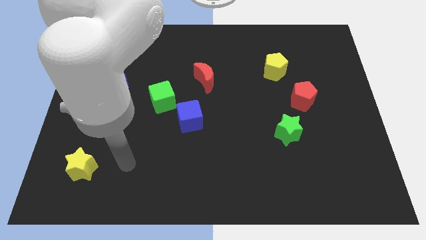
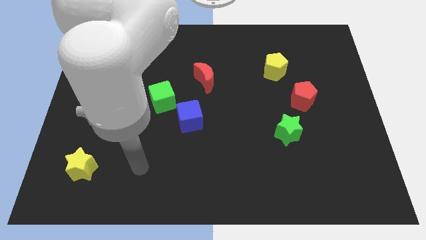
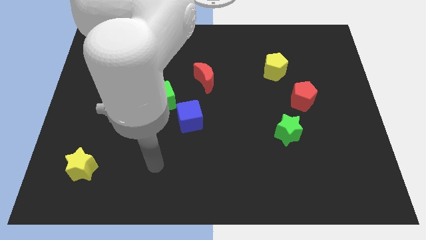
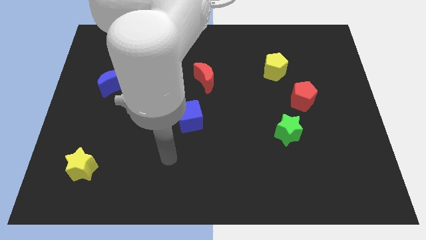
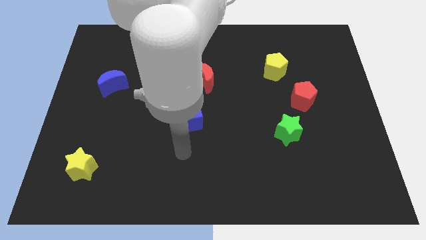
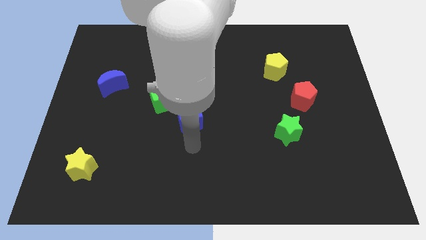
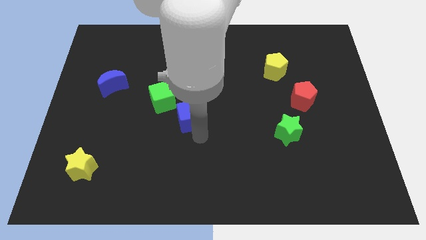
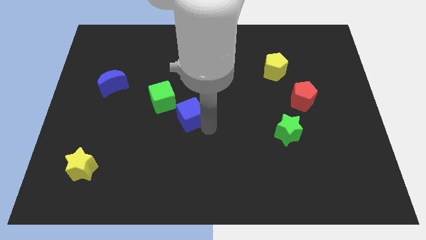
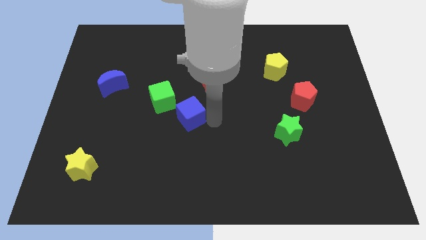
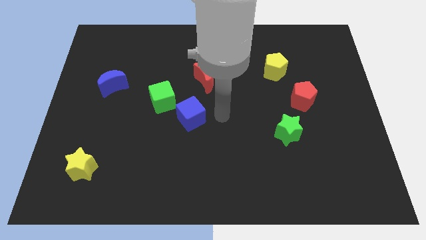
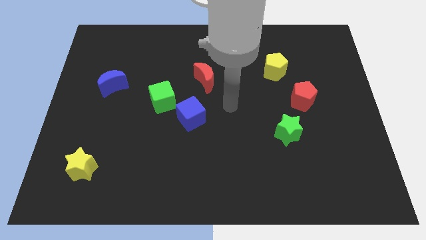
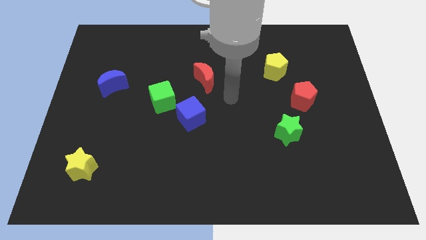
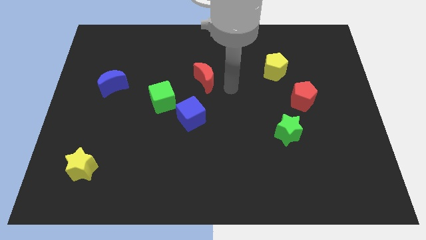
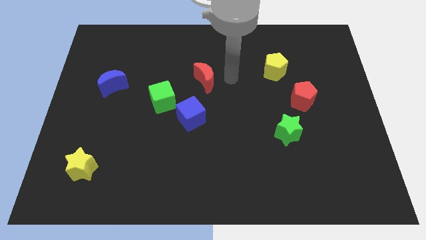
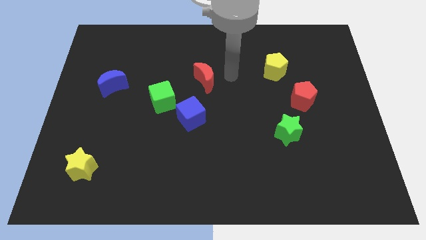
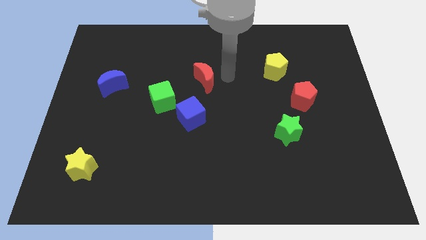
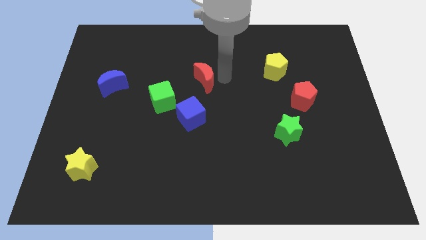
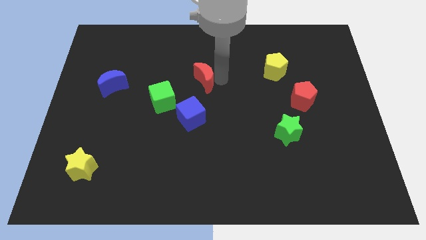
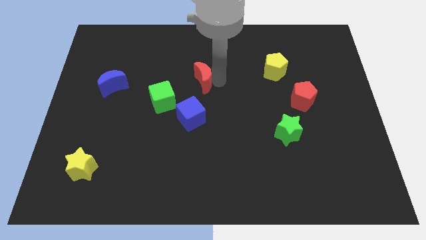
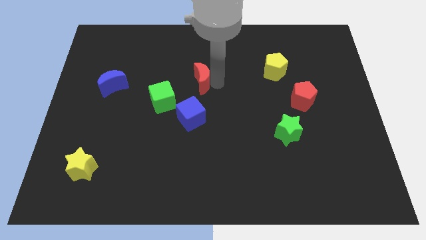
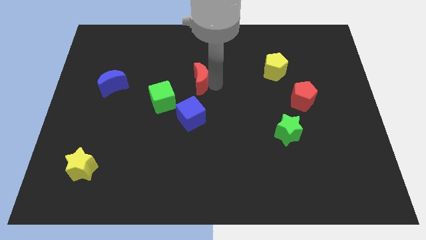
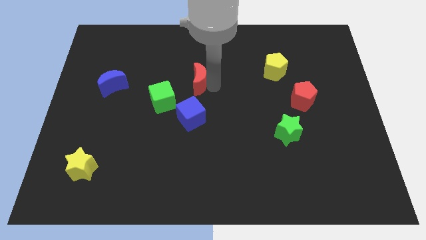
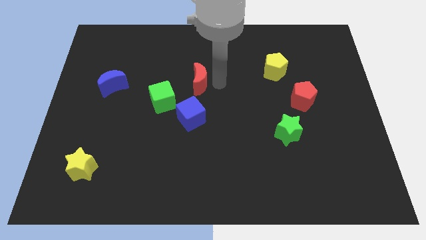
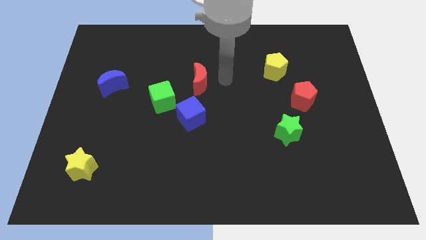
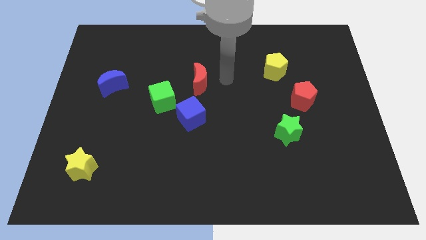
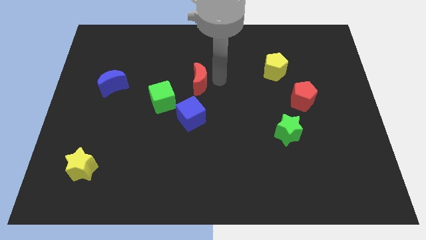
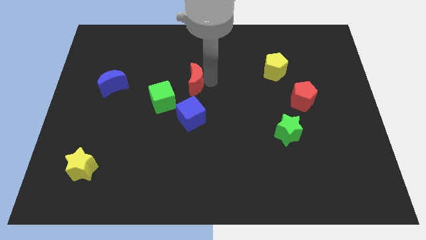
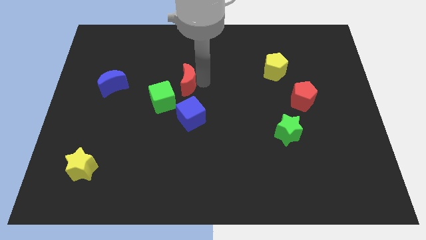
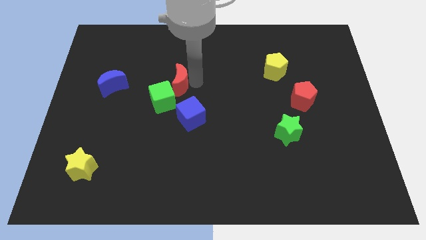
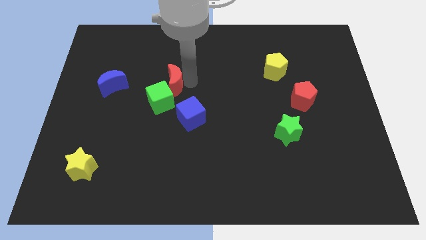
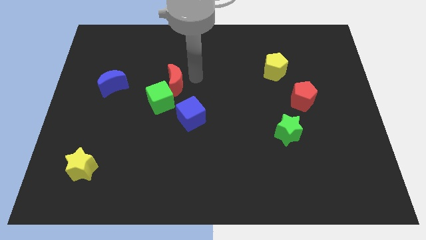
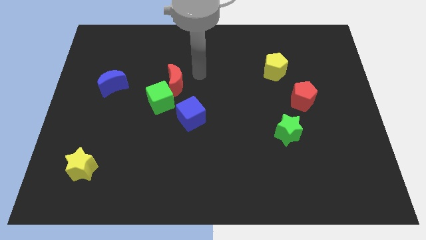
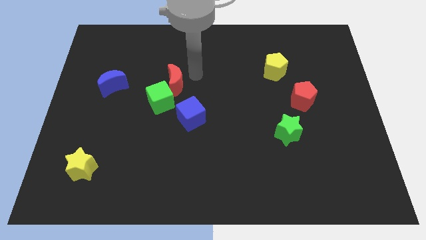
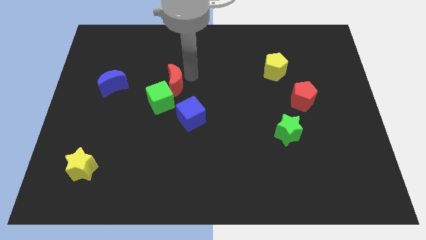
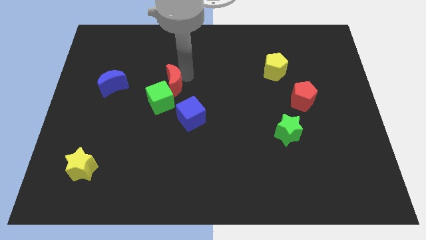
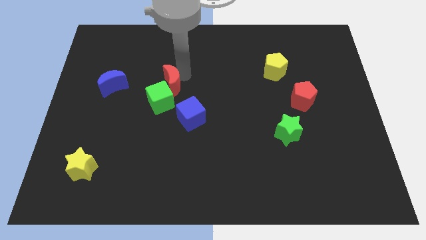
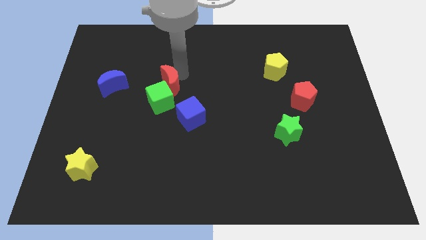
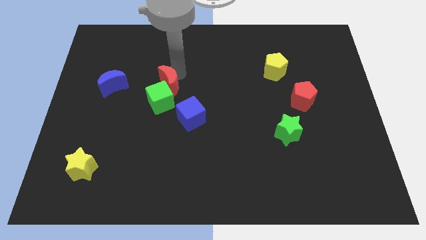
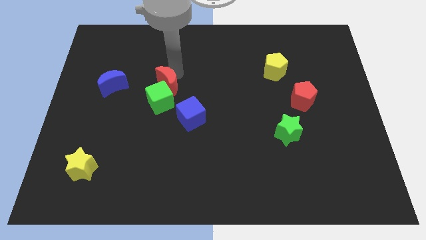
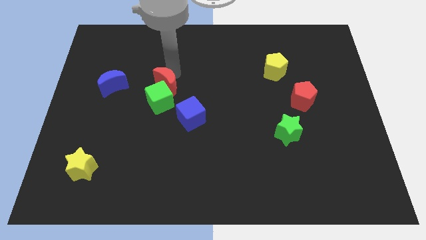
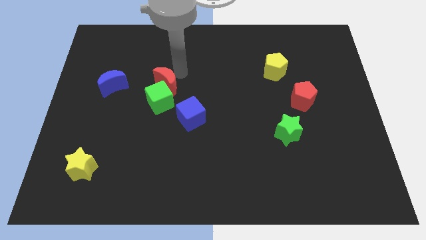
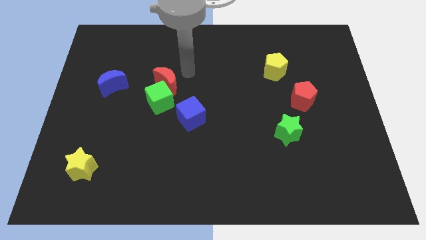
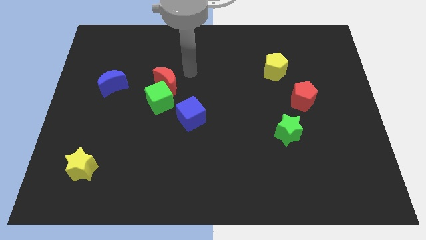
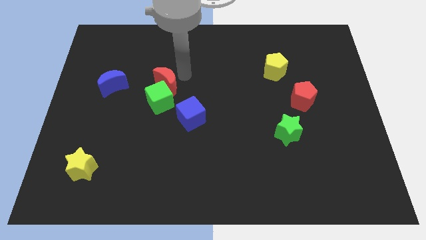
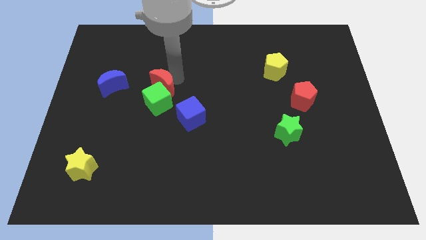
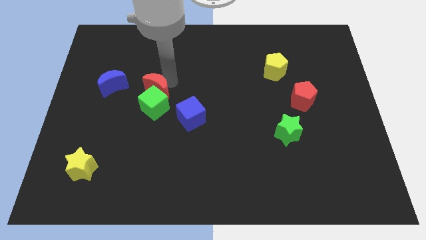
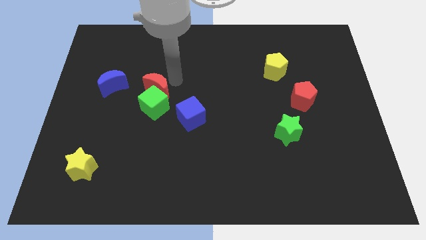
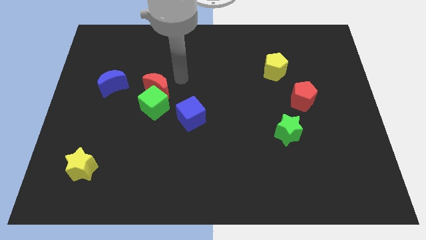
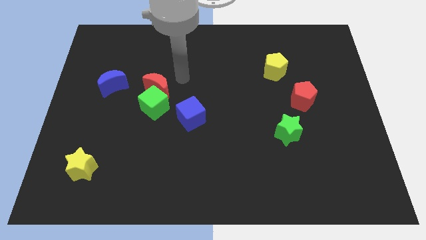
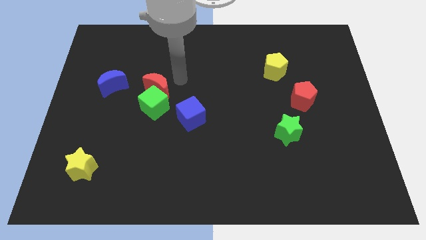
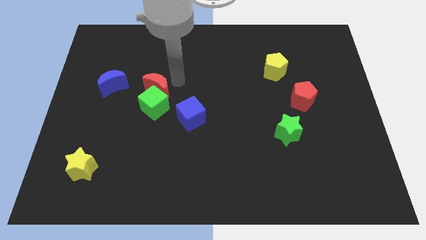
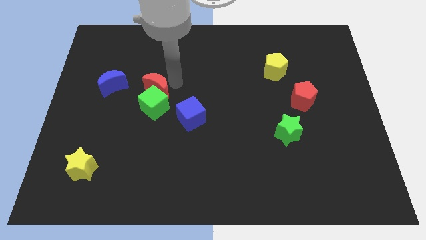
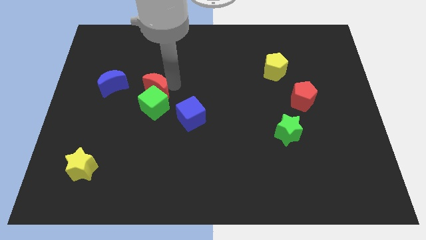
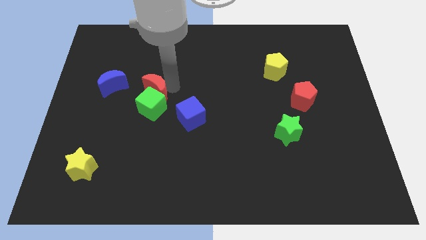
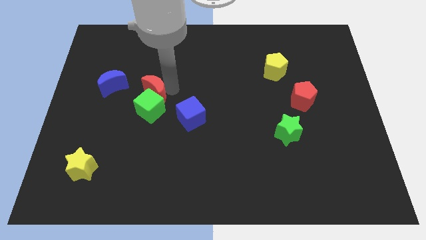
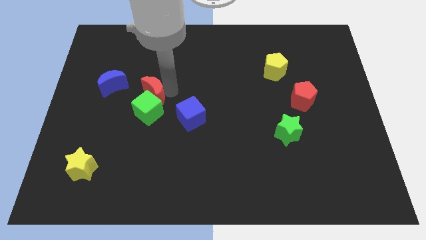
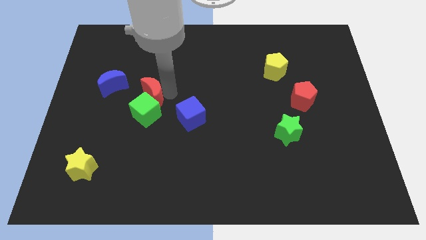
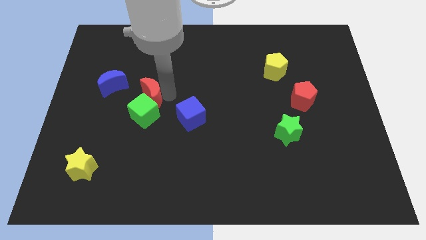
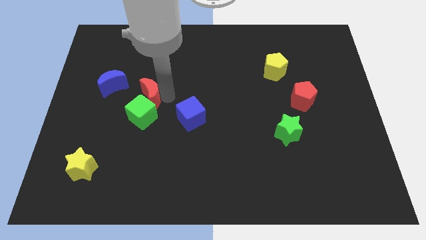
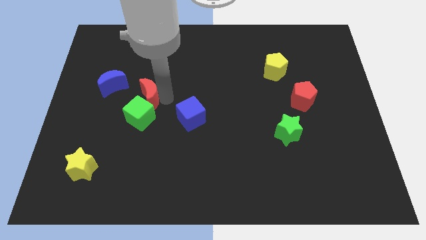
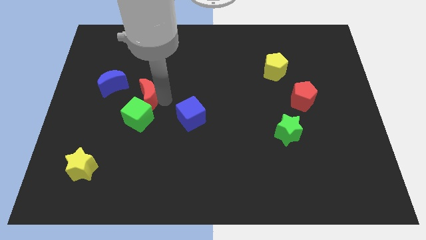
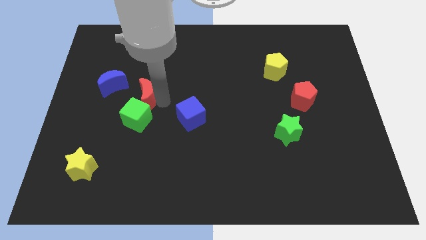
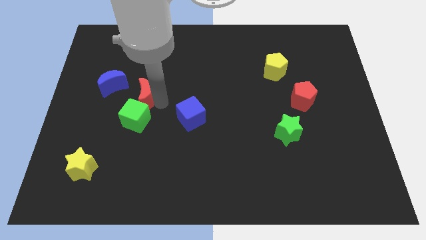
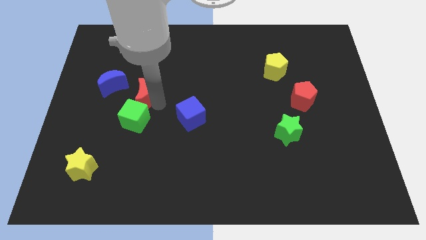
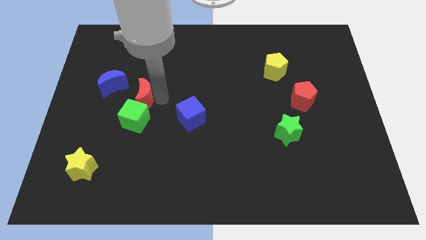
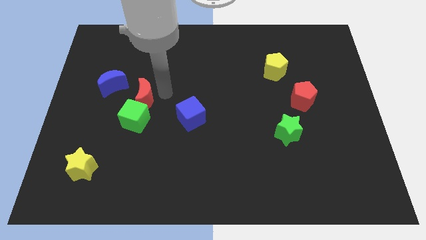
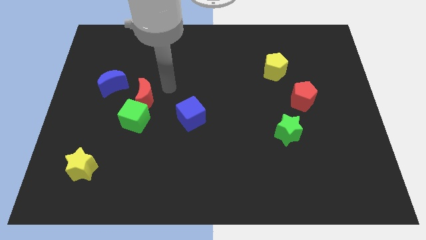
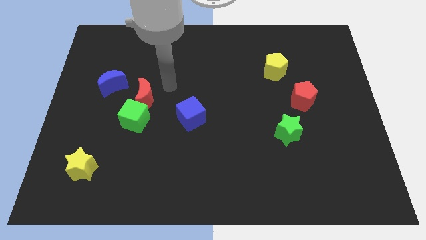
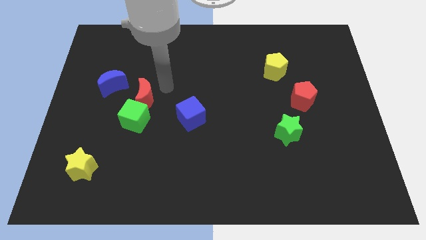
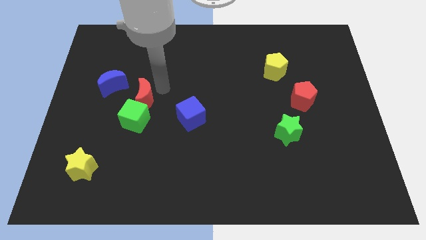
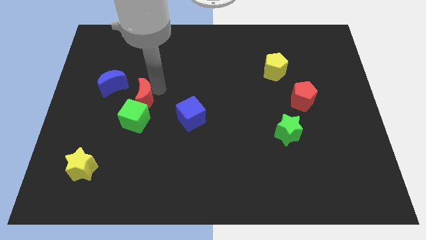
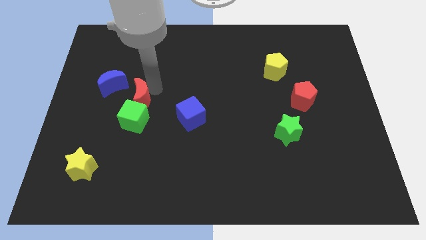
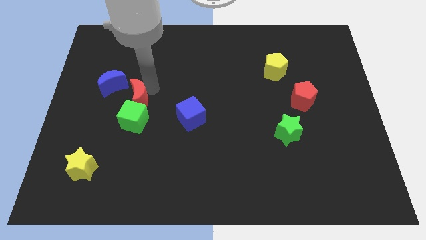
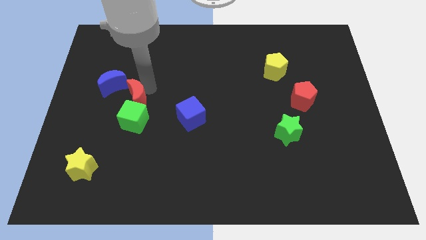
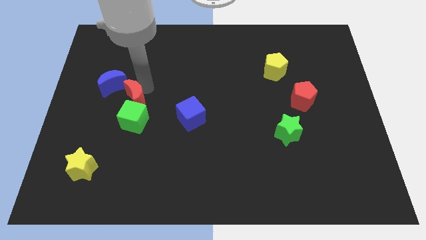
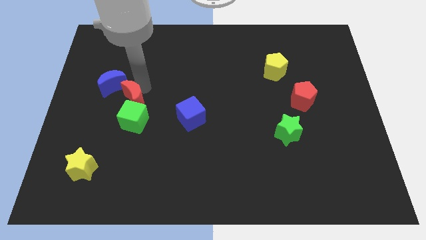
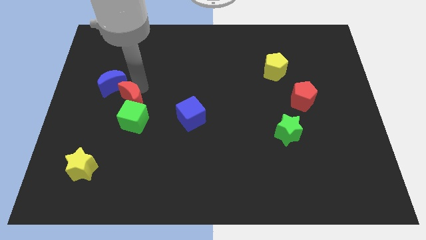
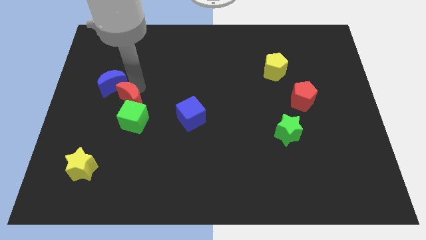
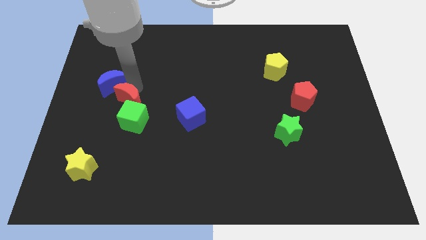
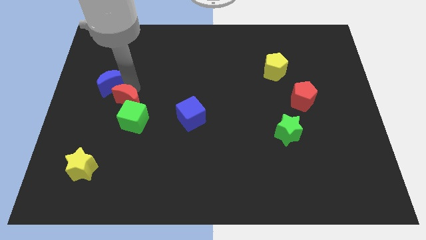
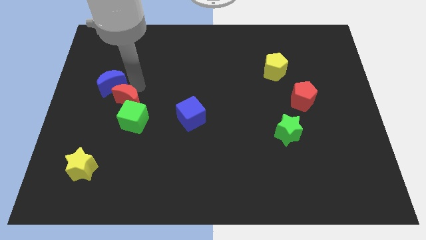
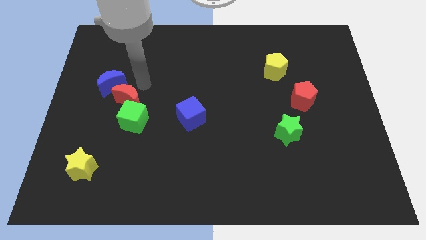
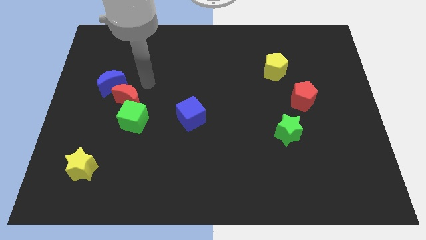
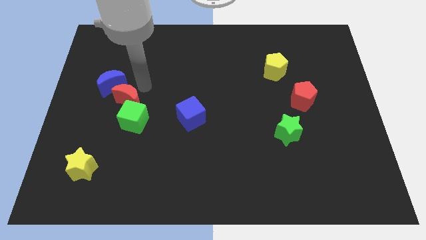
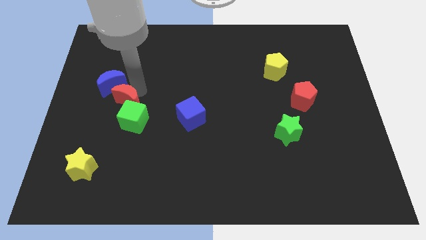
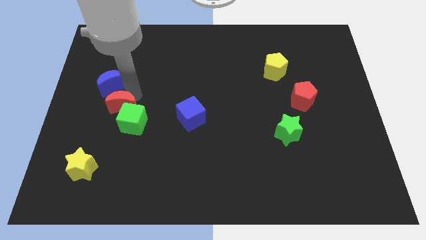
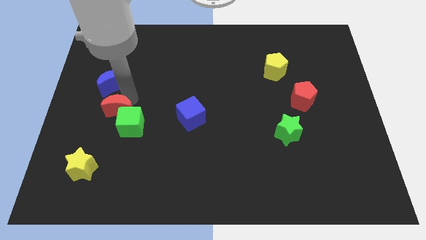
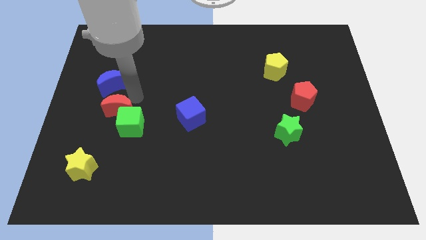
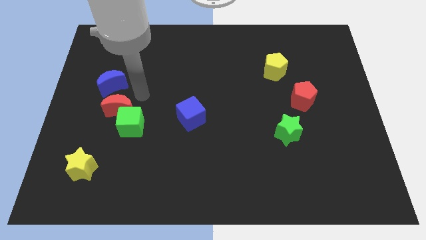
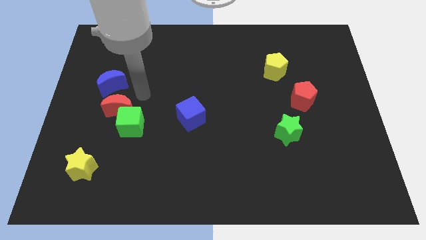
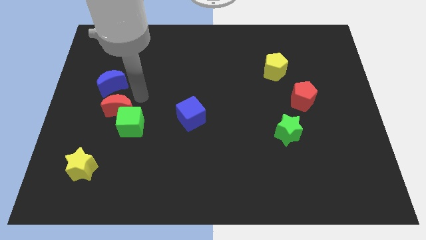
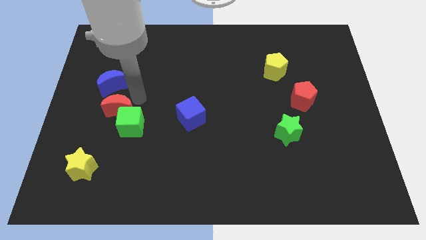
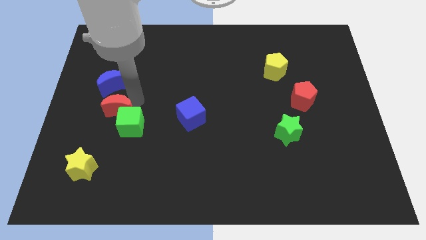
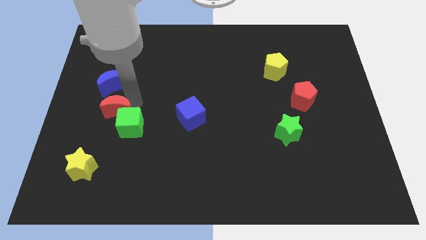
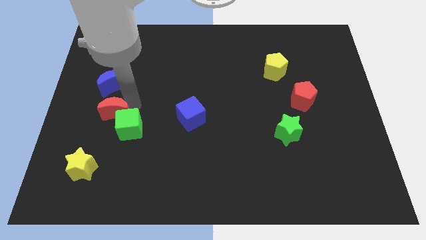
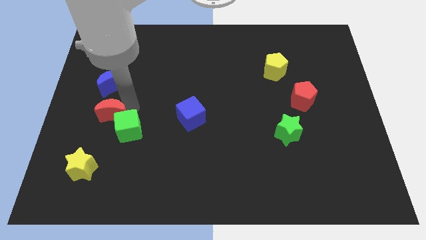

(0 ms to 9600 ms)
move the red moon above the yellow star
